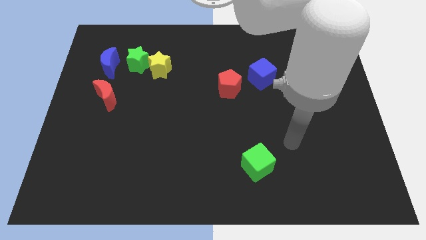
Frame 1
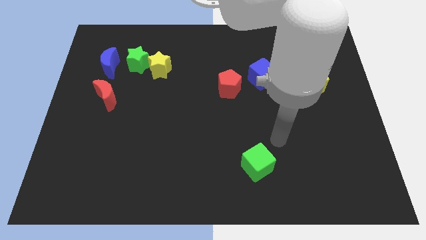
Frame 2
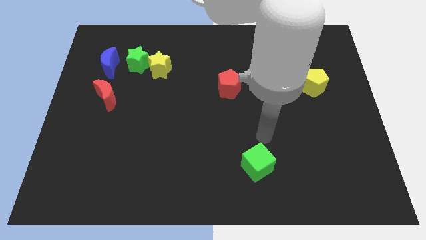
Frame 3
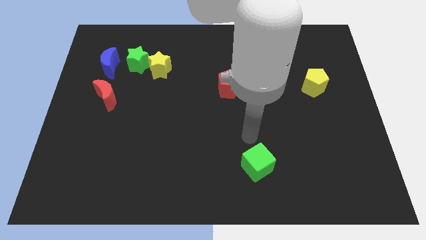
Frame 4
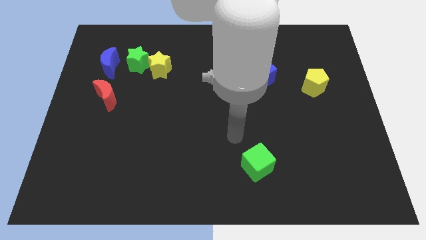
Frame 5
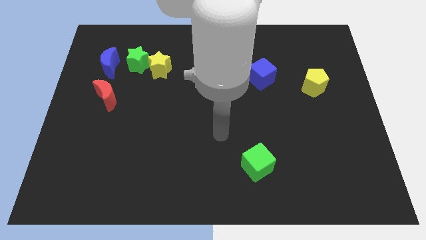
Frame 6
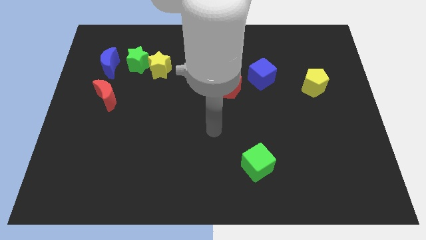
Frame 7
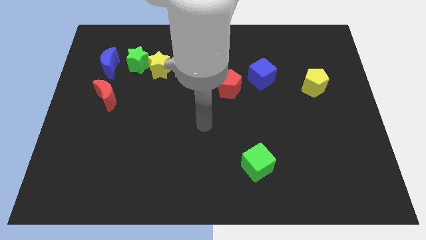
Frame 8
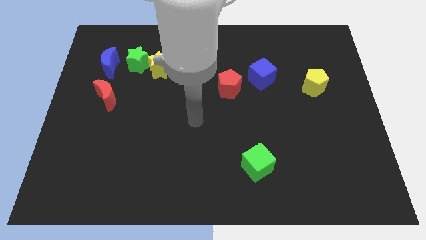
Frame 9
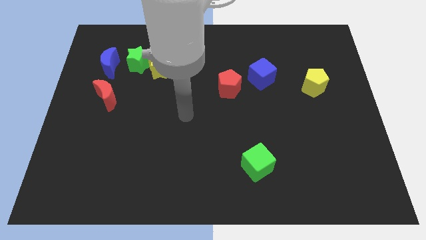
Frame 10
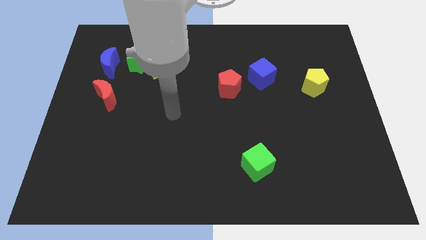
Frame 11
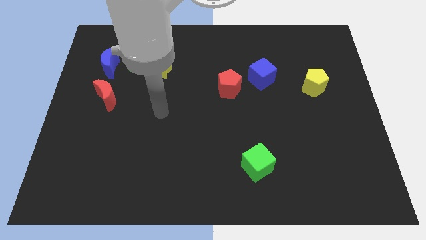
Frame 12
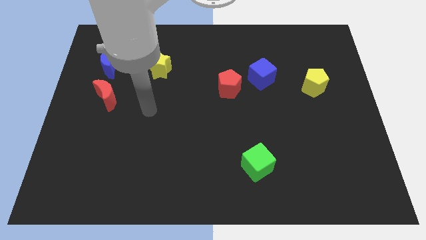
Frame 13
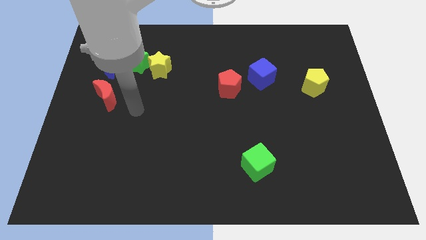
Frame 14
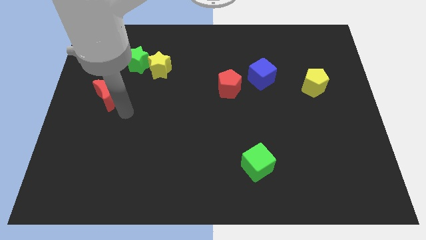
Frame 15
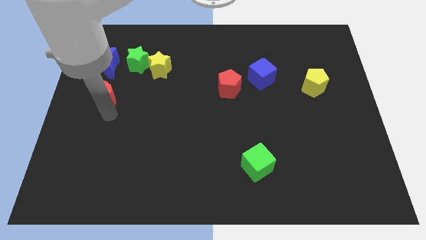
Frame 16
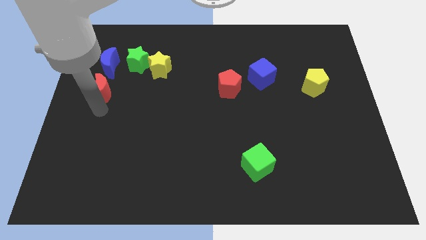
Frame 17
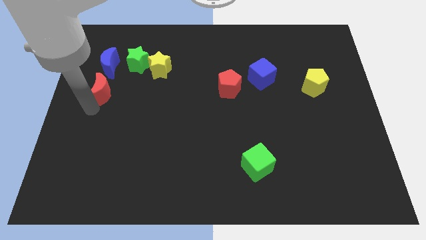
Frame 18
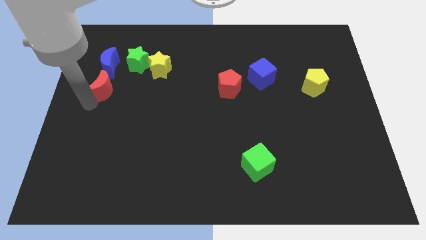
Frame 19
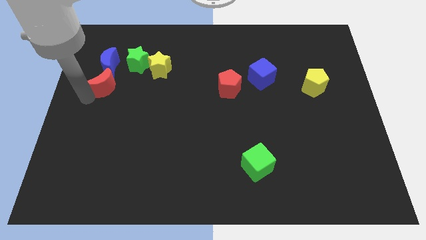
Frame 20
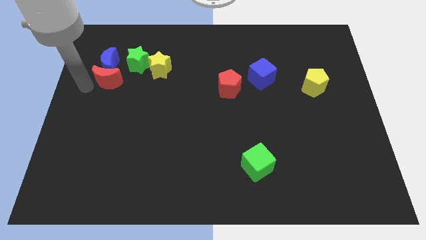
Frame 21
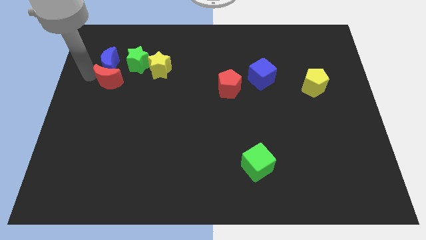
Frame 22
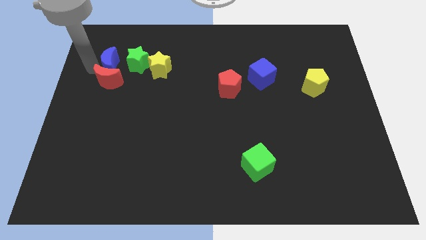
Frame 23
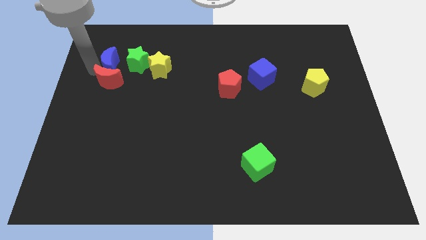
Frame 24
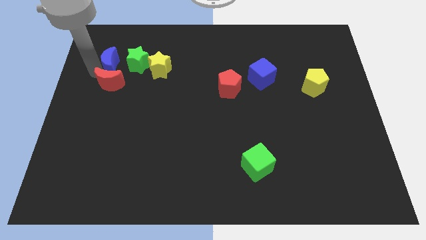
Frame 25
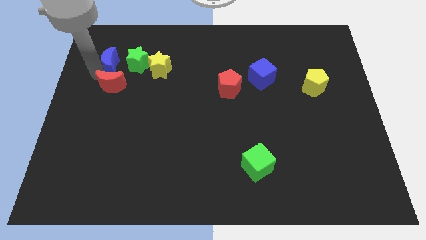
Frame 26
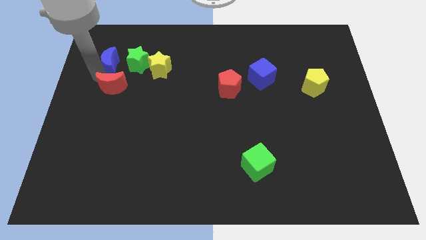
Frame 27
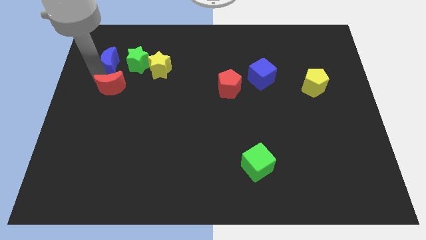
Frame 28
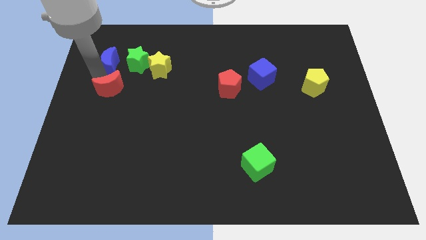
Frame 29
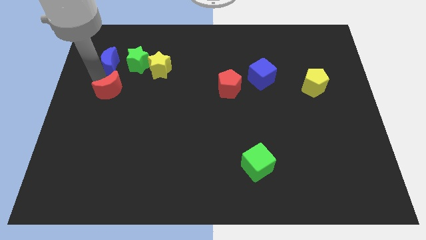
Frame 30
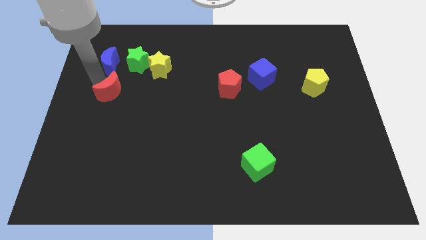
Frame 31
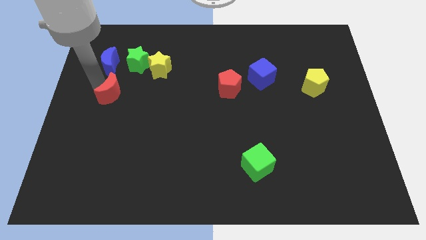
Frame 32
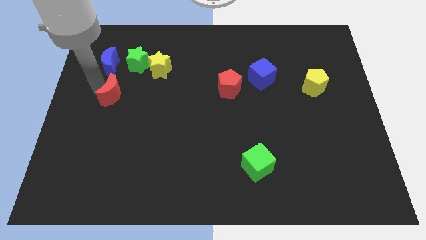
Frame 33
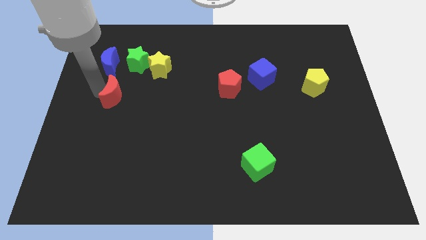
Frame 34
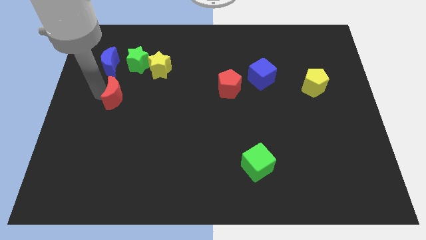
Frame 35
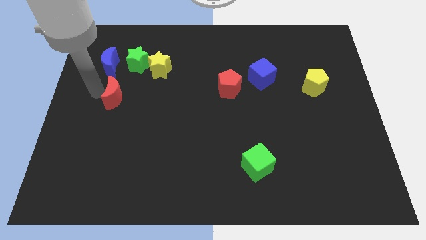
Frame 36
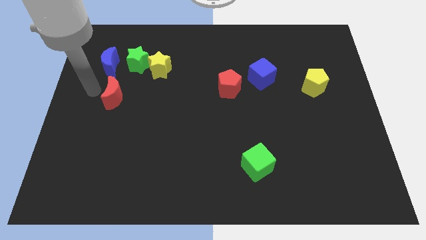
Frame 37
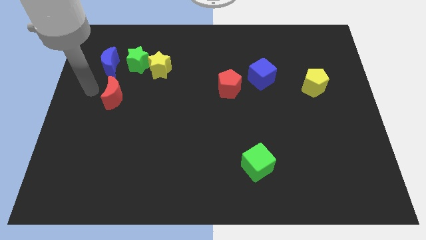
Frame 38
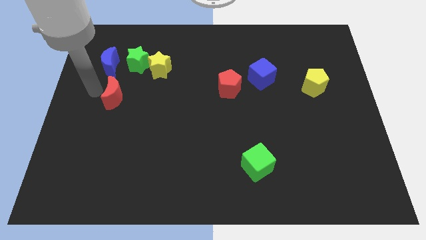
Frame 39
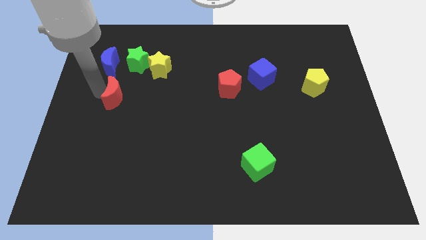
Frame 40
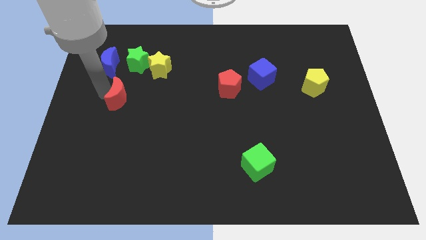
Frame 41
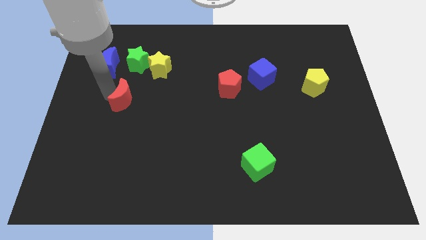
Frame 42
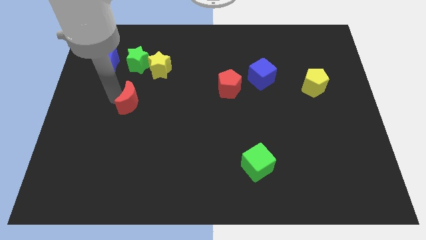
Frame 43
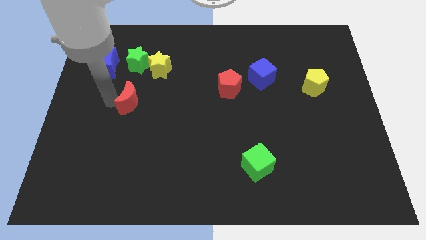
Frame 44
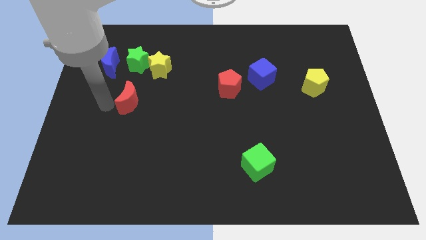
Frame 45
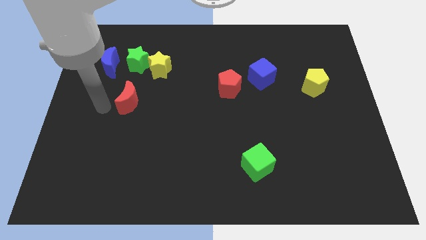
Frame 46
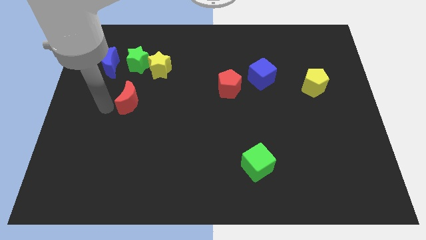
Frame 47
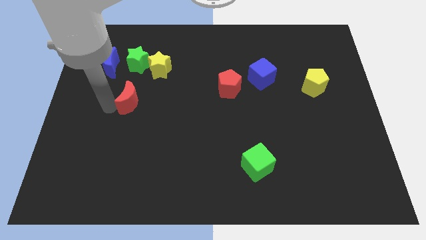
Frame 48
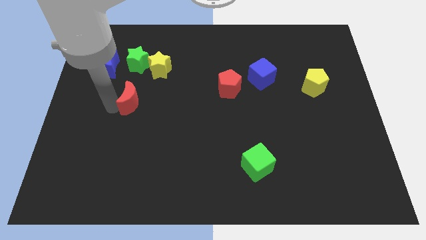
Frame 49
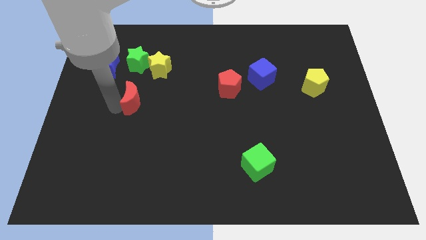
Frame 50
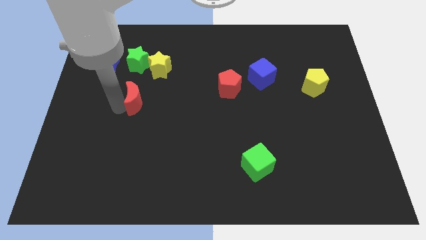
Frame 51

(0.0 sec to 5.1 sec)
push the red moon right somewhat

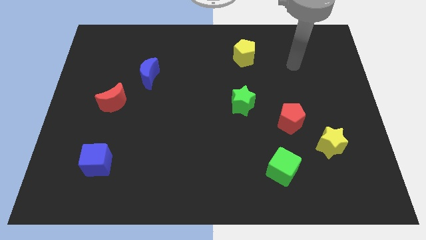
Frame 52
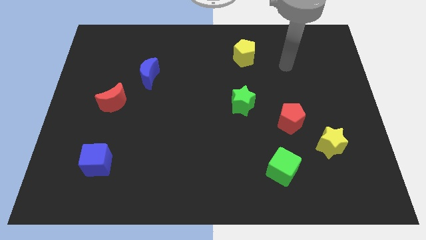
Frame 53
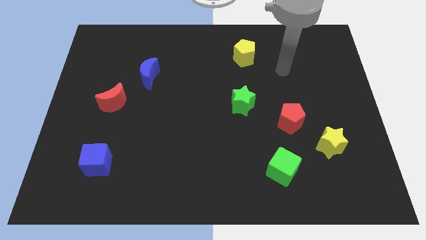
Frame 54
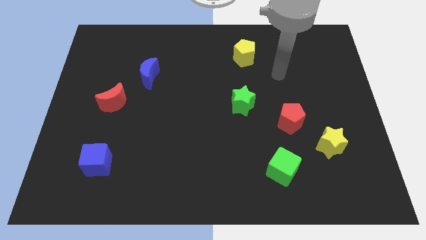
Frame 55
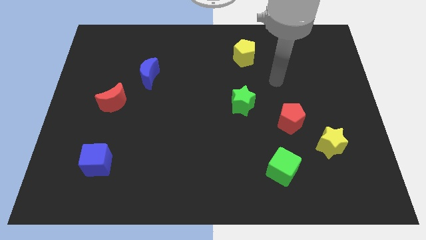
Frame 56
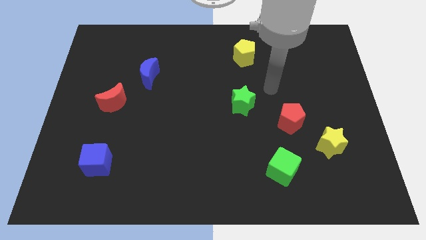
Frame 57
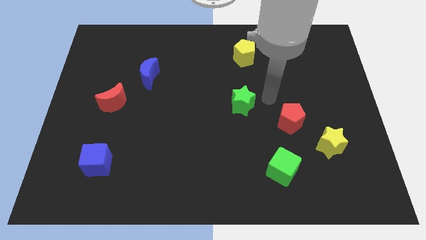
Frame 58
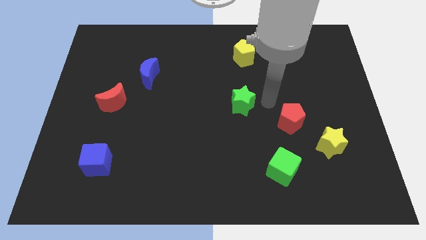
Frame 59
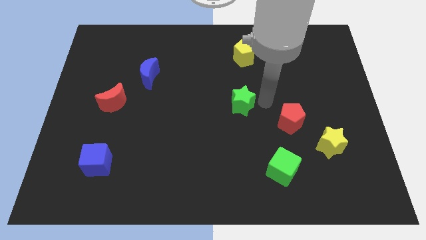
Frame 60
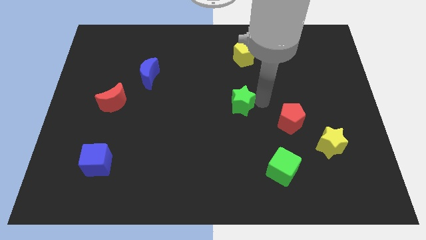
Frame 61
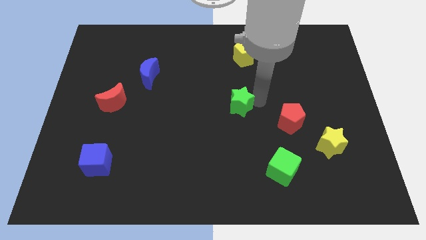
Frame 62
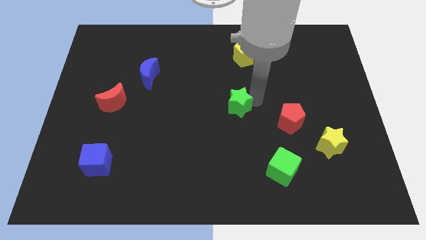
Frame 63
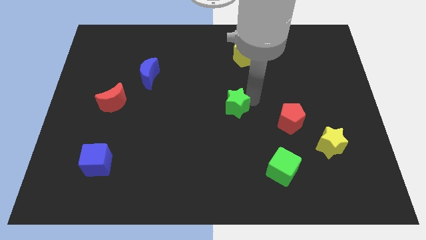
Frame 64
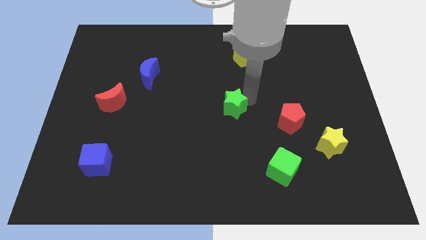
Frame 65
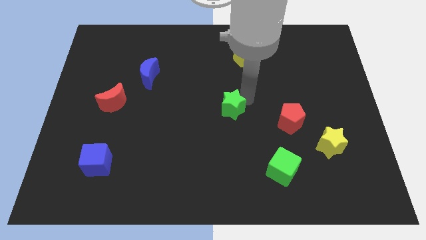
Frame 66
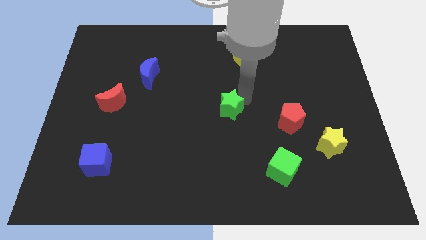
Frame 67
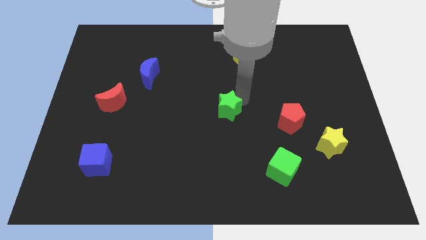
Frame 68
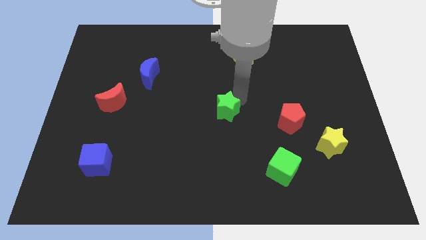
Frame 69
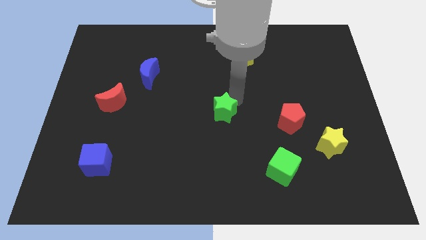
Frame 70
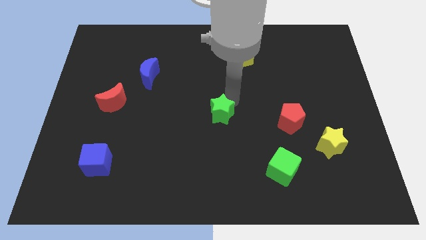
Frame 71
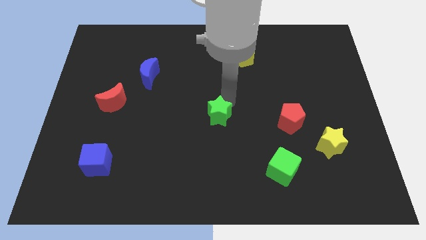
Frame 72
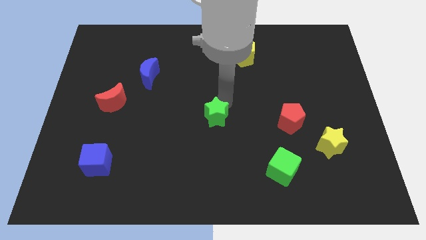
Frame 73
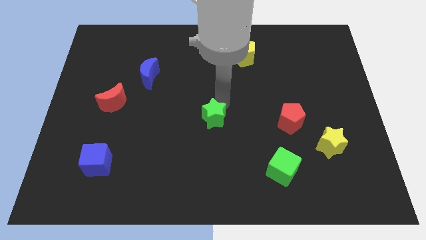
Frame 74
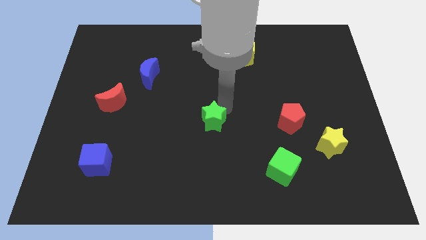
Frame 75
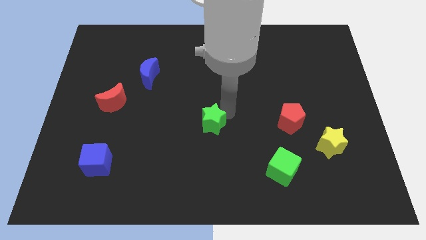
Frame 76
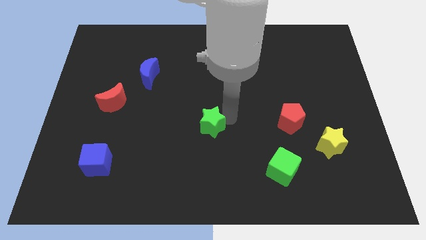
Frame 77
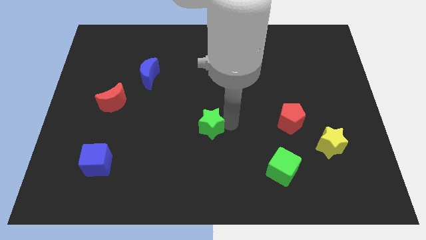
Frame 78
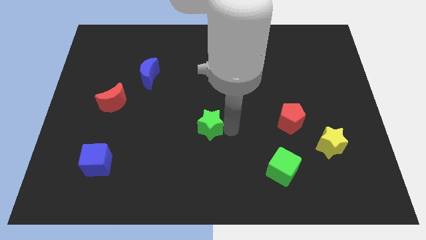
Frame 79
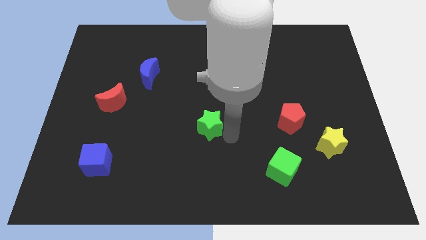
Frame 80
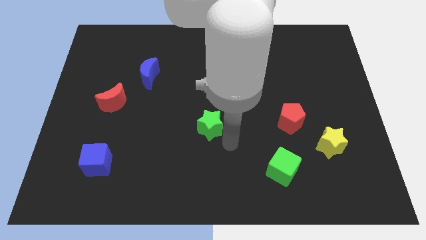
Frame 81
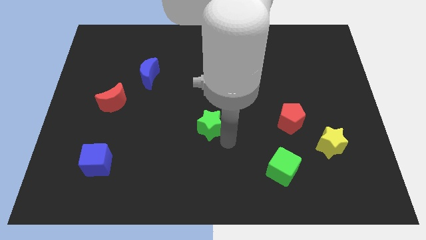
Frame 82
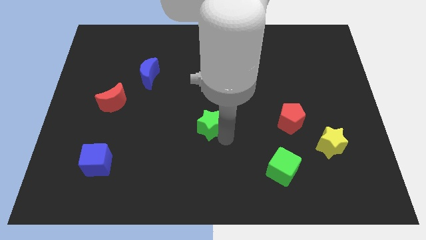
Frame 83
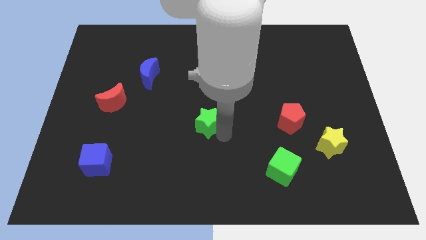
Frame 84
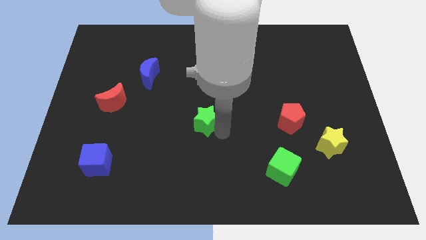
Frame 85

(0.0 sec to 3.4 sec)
slide the green star a bit to the left
